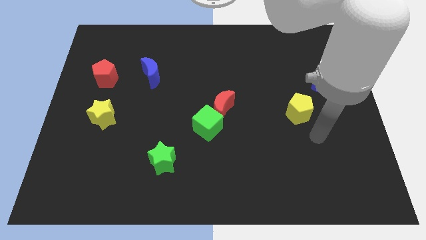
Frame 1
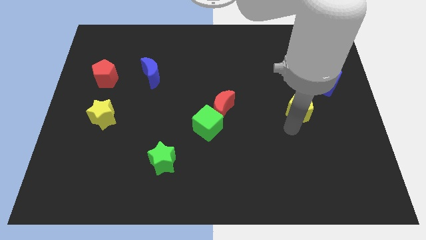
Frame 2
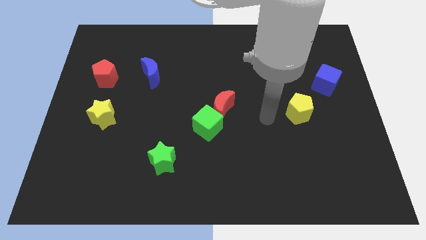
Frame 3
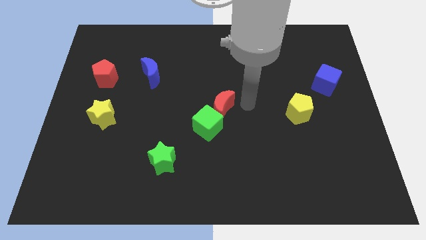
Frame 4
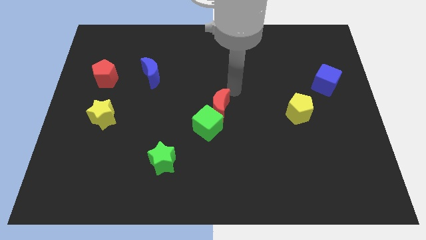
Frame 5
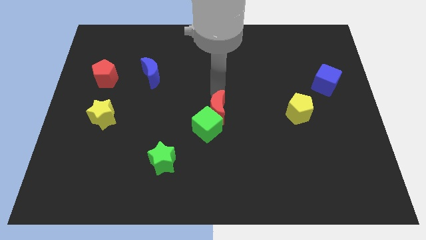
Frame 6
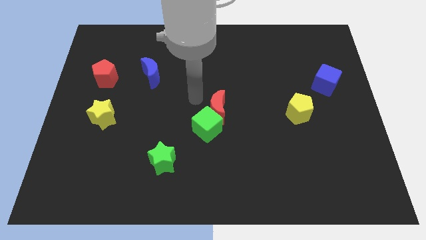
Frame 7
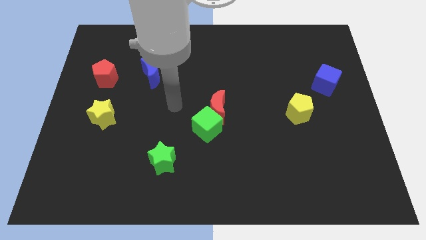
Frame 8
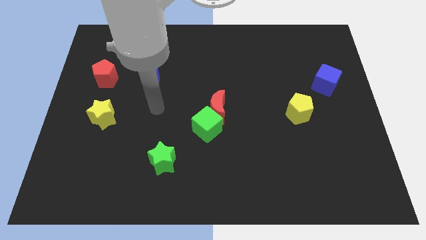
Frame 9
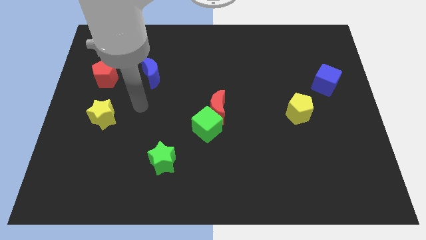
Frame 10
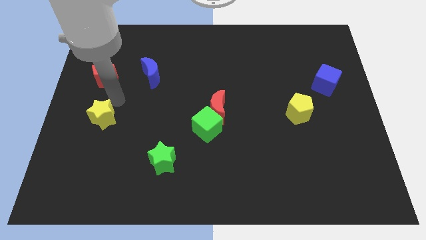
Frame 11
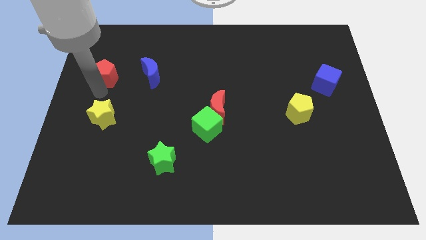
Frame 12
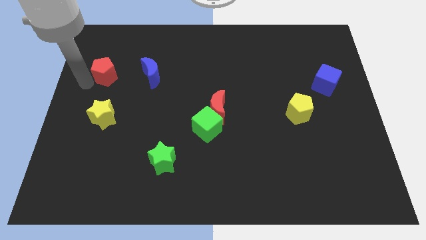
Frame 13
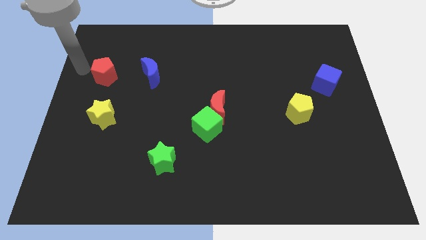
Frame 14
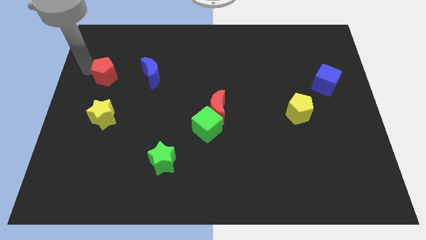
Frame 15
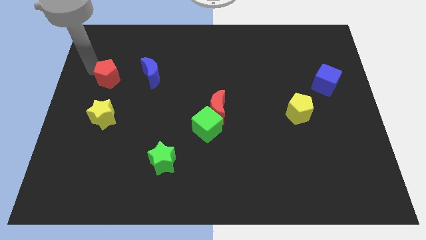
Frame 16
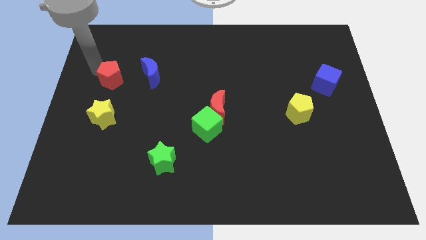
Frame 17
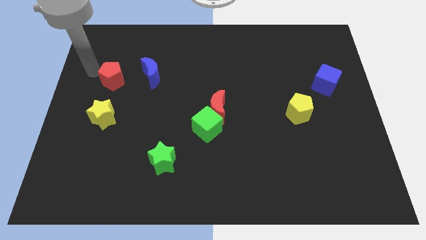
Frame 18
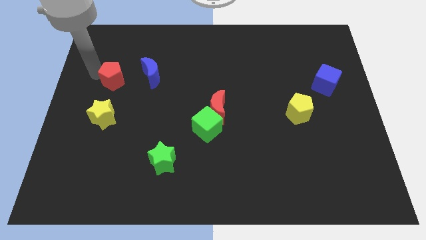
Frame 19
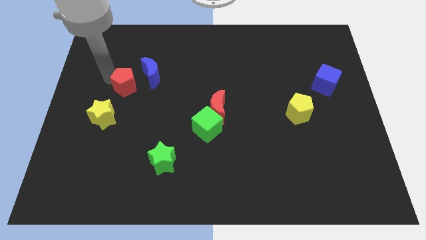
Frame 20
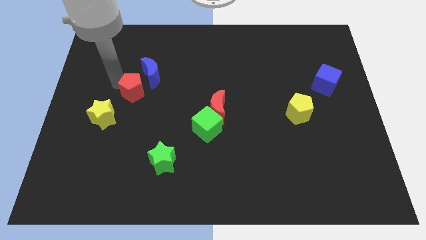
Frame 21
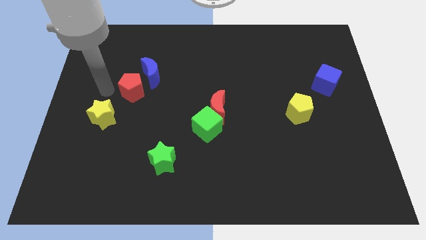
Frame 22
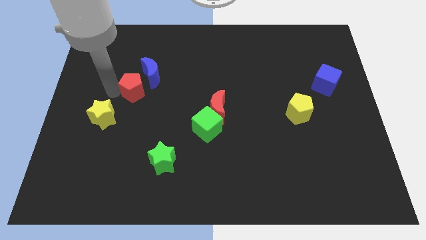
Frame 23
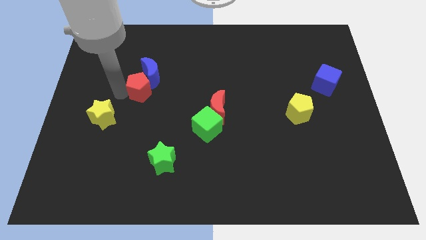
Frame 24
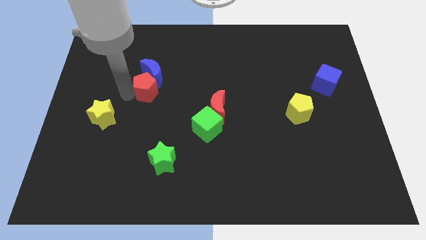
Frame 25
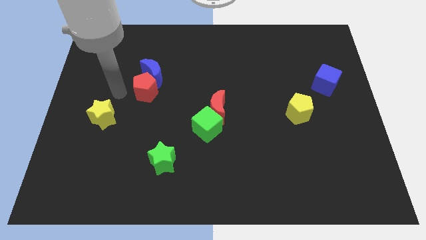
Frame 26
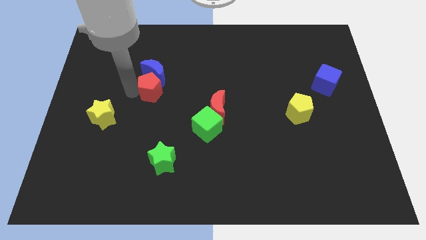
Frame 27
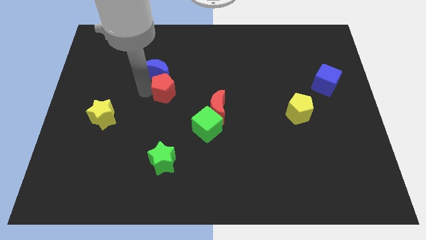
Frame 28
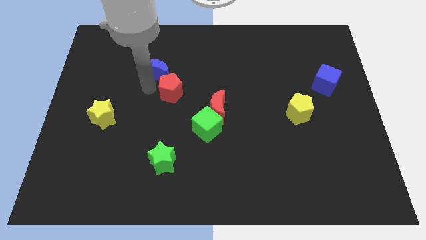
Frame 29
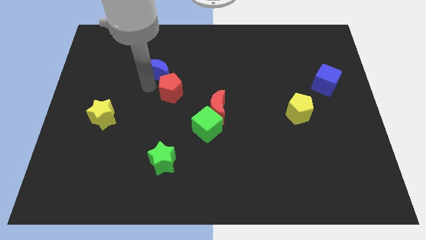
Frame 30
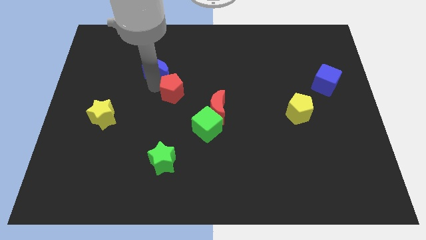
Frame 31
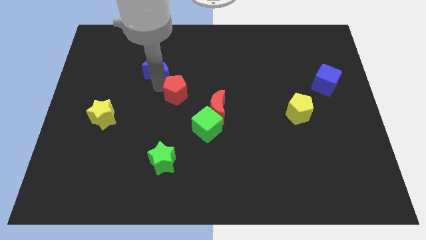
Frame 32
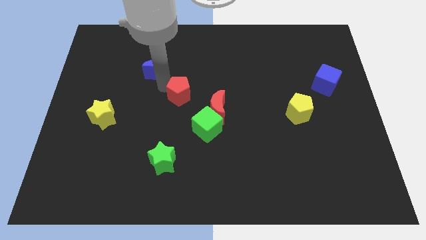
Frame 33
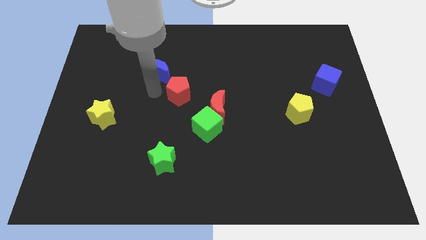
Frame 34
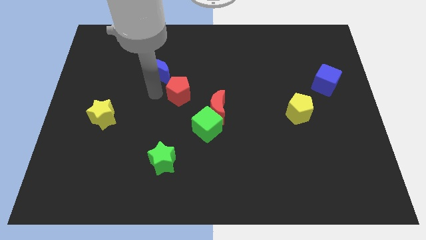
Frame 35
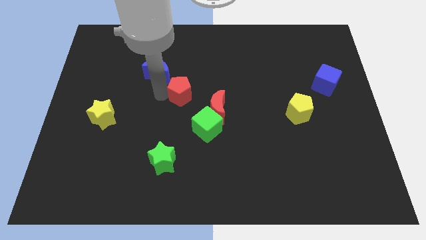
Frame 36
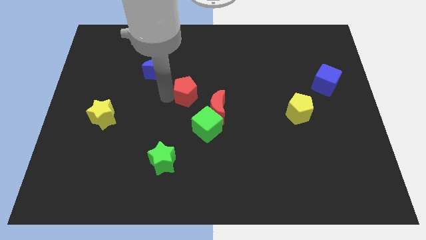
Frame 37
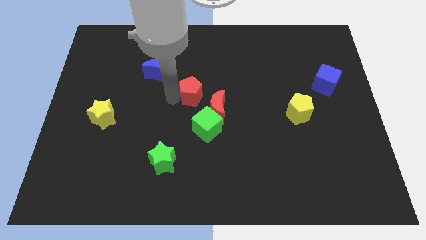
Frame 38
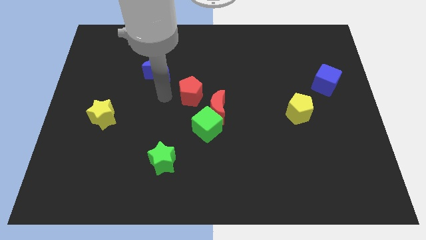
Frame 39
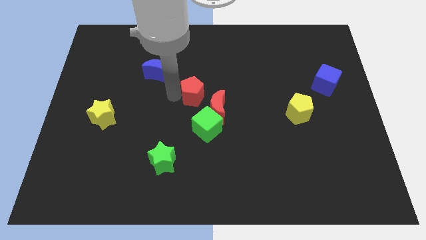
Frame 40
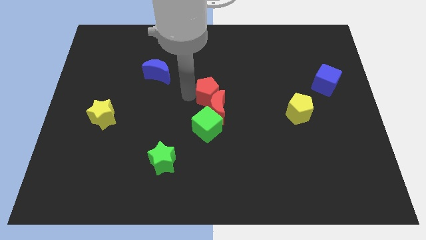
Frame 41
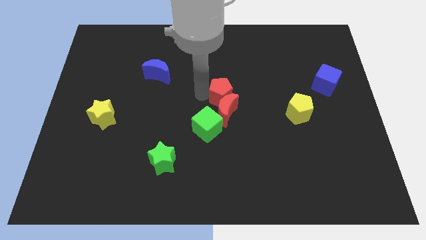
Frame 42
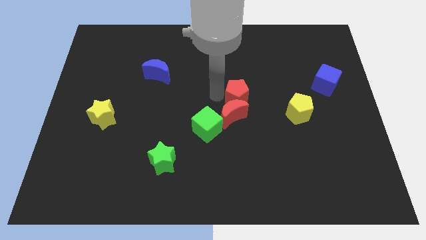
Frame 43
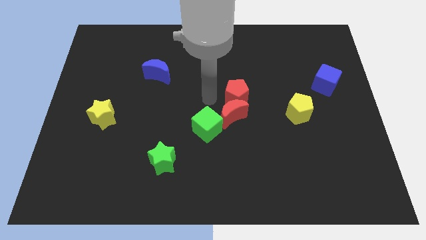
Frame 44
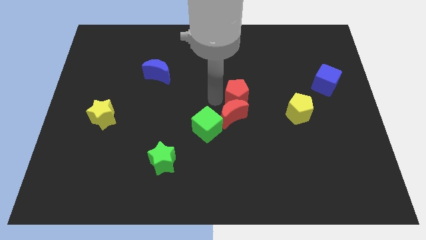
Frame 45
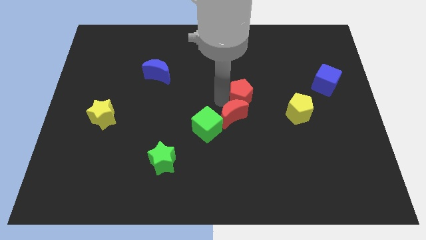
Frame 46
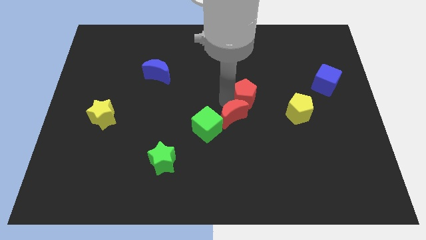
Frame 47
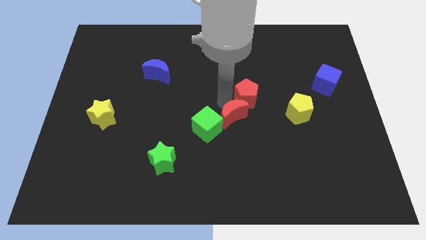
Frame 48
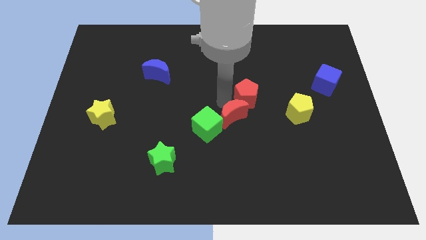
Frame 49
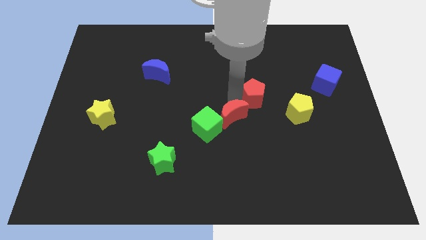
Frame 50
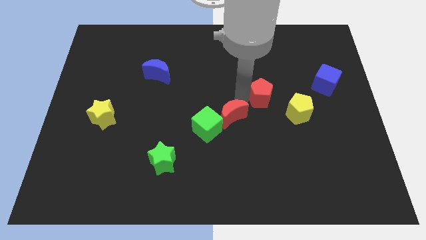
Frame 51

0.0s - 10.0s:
push the red pentagon diagonally up and to the left of the yellow pentagon

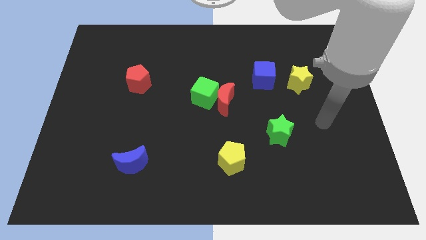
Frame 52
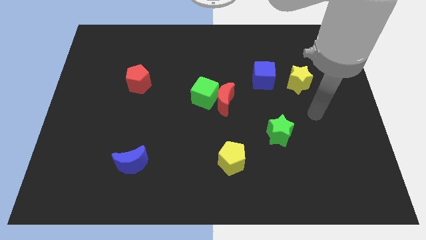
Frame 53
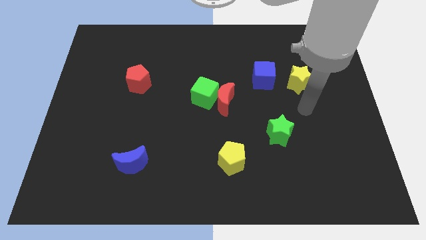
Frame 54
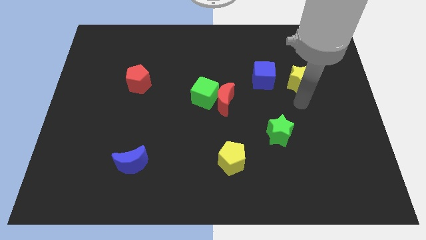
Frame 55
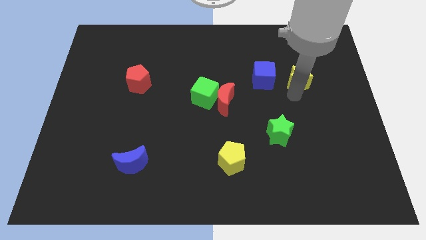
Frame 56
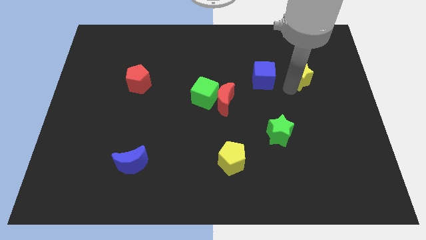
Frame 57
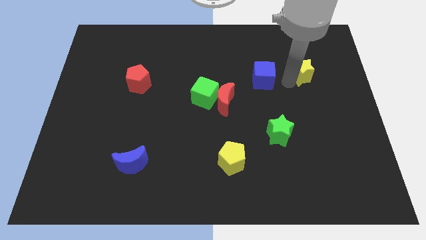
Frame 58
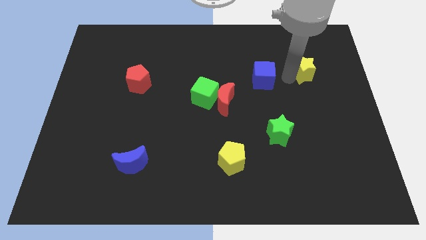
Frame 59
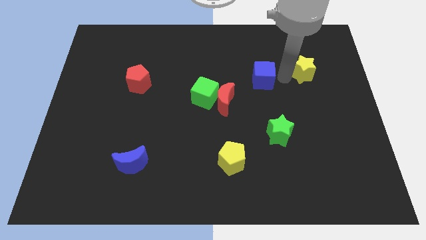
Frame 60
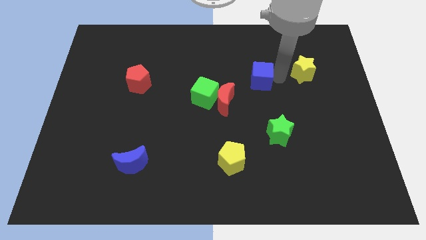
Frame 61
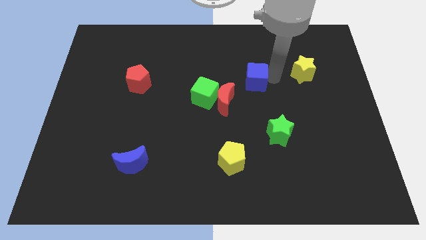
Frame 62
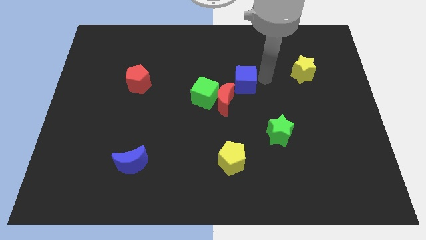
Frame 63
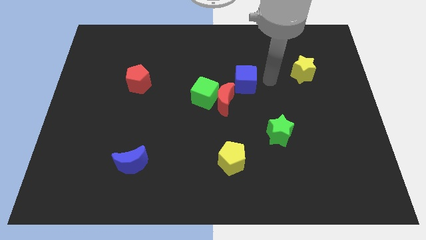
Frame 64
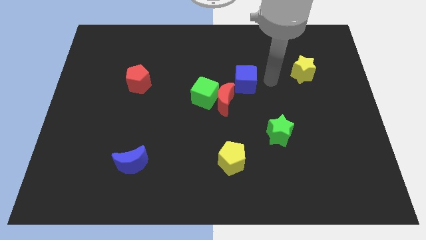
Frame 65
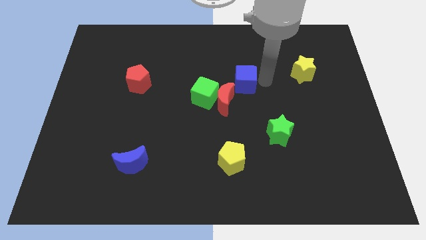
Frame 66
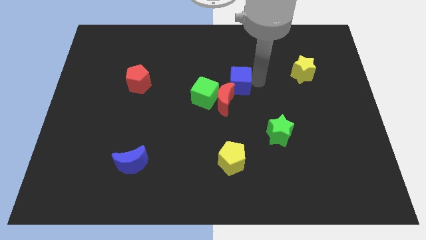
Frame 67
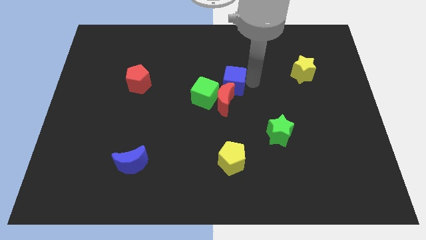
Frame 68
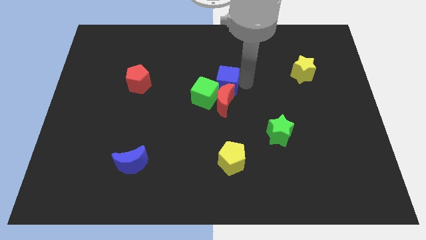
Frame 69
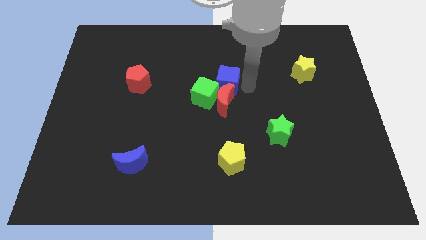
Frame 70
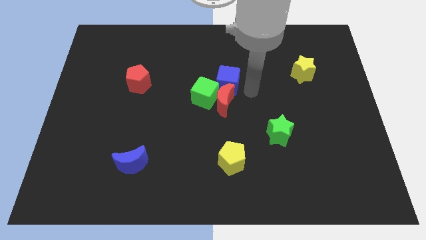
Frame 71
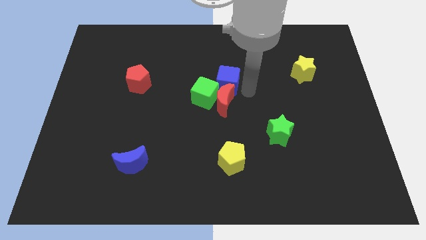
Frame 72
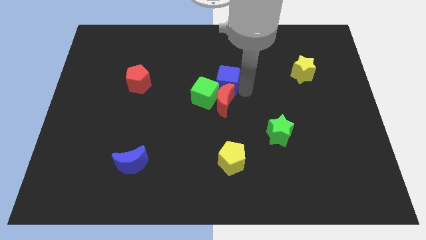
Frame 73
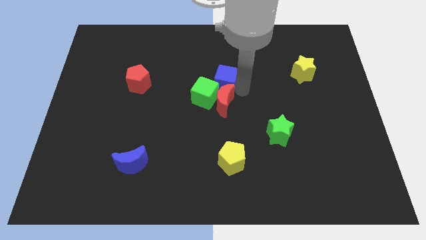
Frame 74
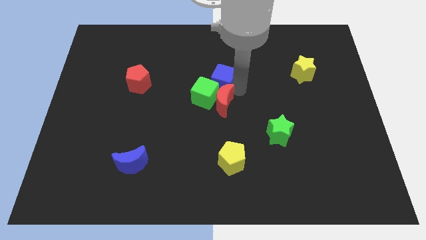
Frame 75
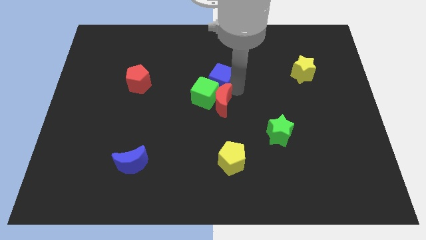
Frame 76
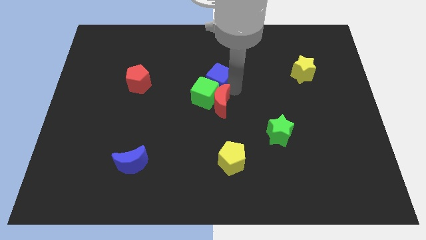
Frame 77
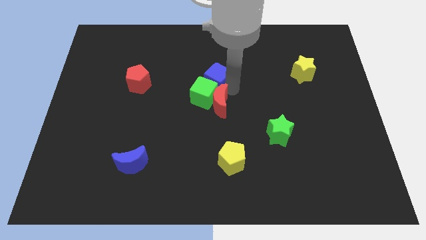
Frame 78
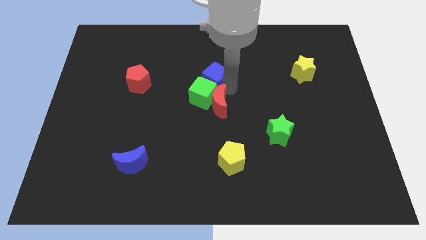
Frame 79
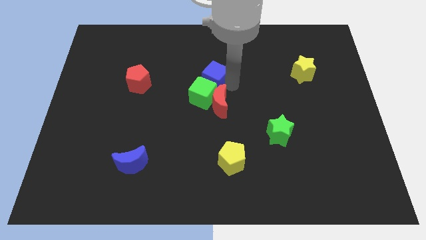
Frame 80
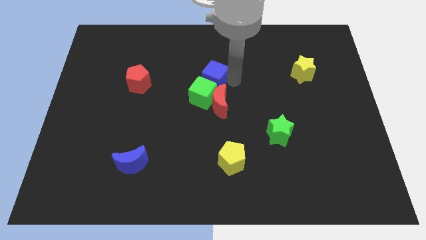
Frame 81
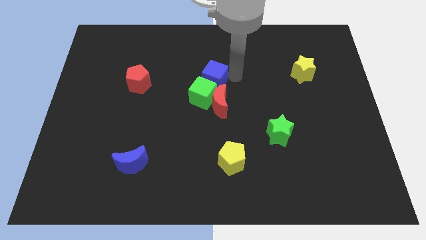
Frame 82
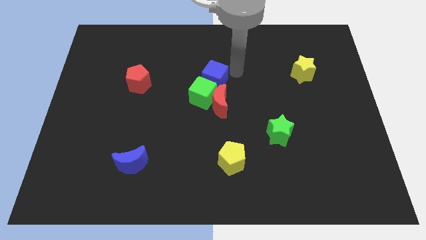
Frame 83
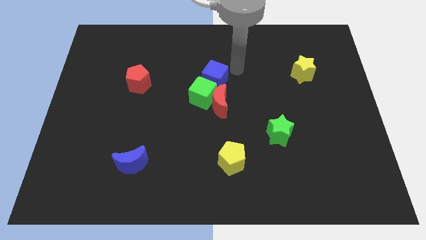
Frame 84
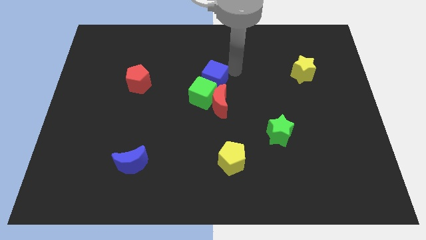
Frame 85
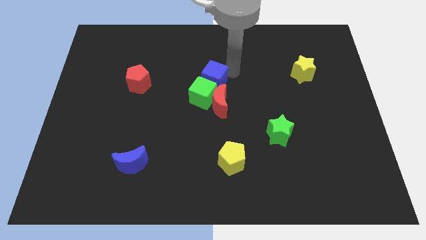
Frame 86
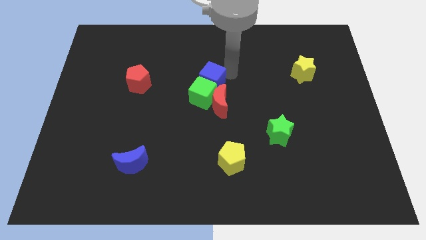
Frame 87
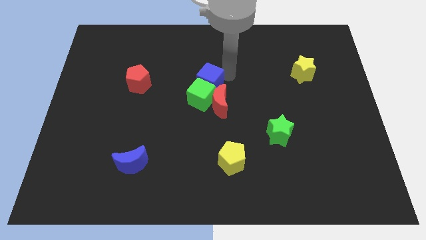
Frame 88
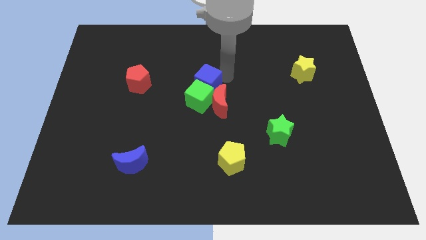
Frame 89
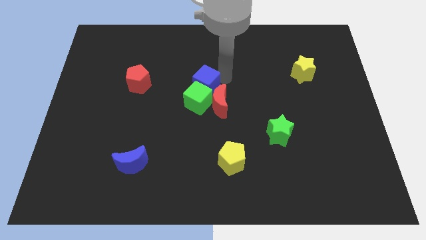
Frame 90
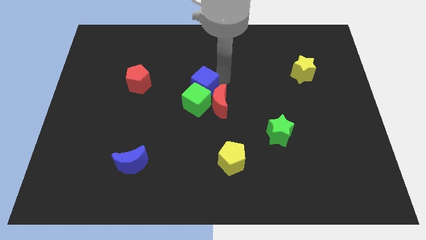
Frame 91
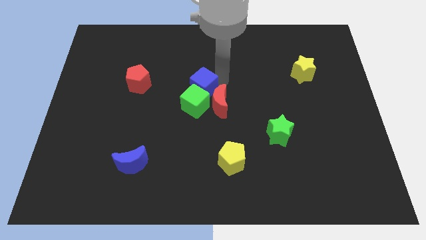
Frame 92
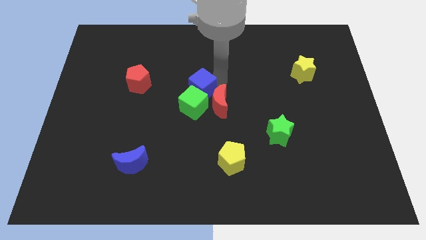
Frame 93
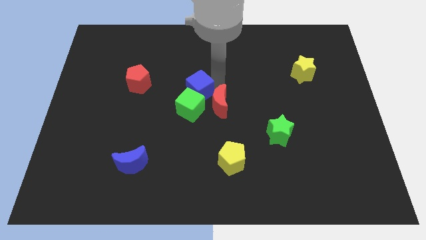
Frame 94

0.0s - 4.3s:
push the blue cube just left of the red moon
